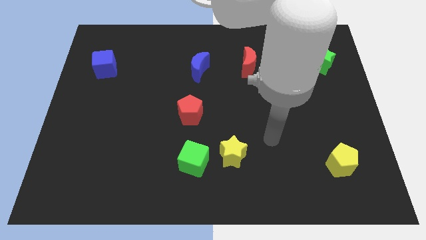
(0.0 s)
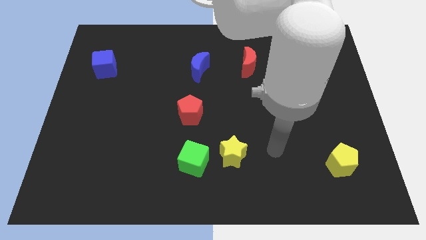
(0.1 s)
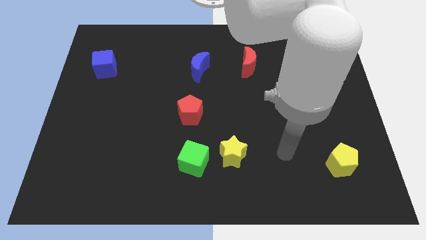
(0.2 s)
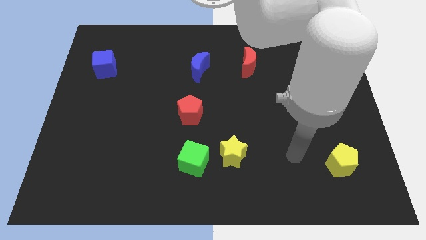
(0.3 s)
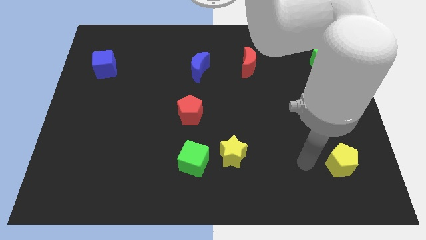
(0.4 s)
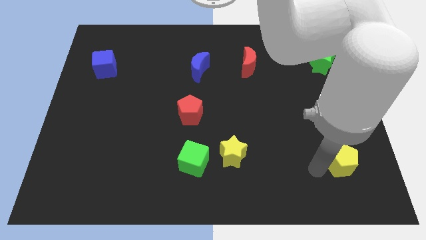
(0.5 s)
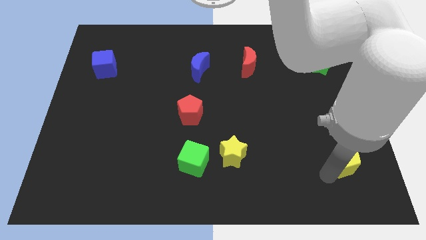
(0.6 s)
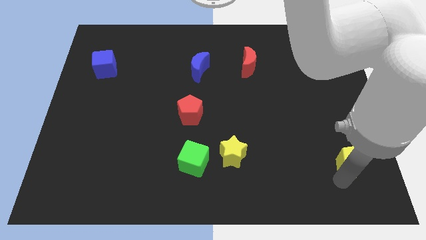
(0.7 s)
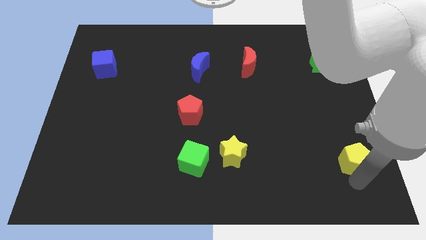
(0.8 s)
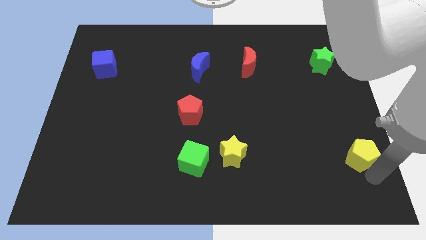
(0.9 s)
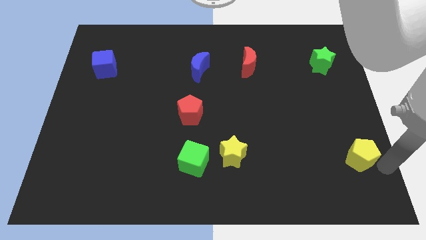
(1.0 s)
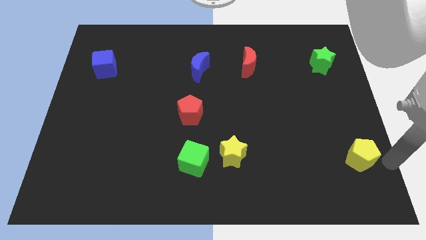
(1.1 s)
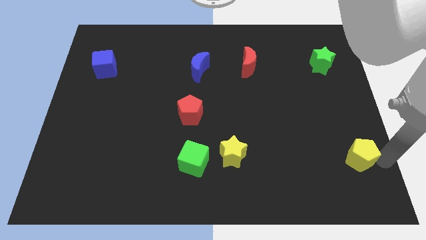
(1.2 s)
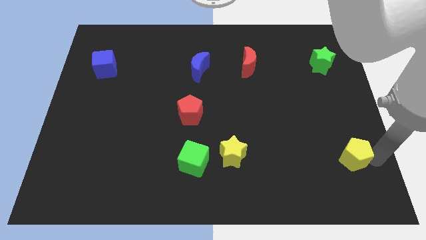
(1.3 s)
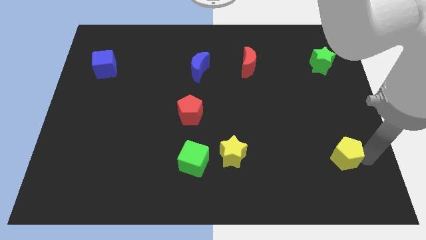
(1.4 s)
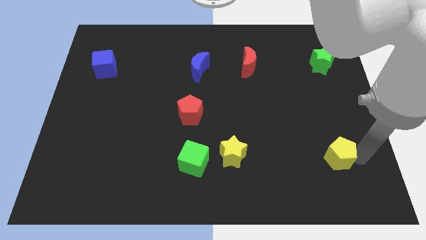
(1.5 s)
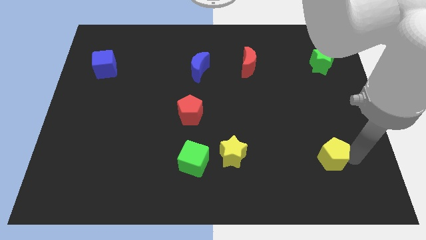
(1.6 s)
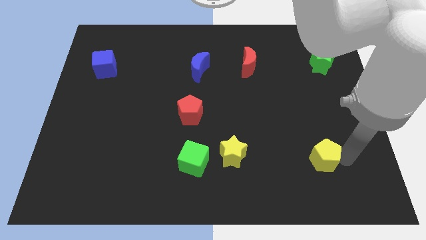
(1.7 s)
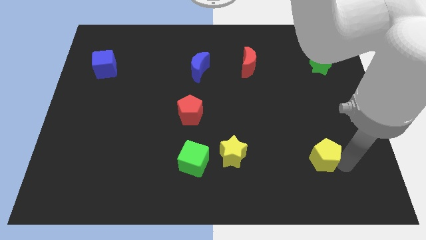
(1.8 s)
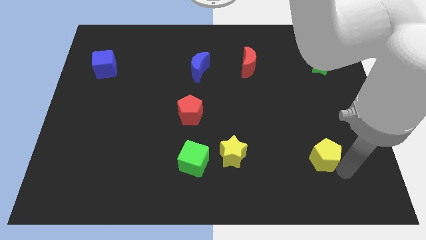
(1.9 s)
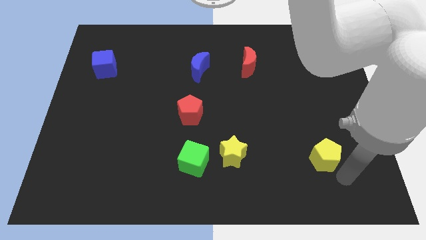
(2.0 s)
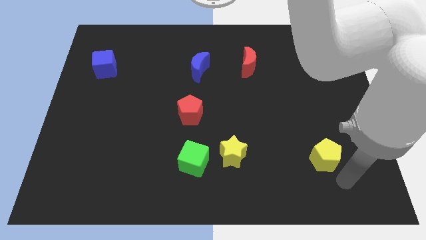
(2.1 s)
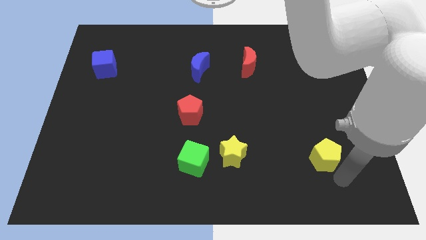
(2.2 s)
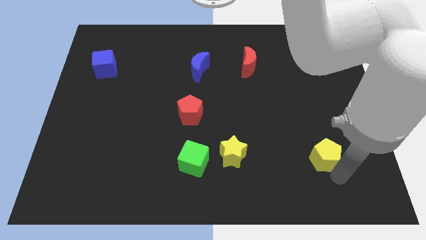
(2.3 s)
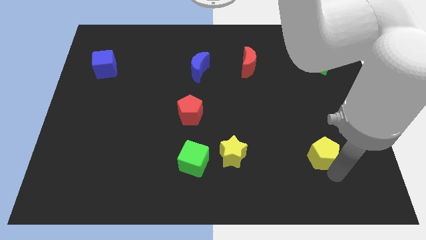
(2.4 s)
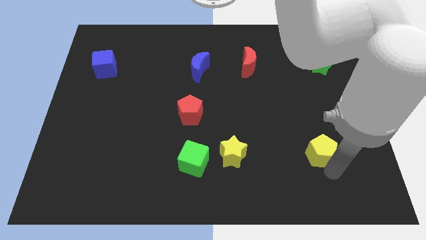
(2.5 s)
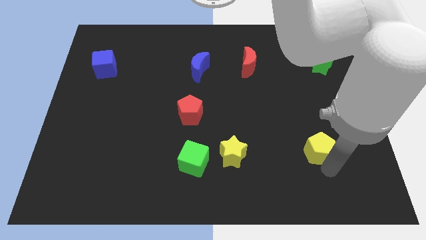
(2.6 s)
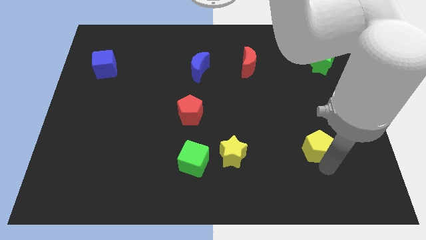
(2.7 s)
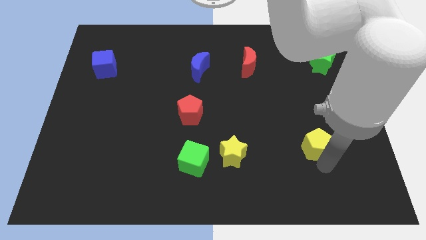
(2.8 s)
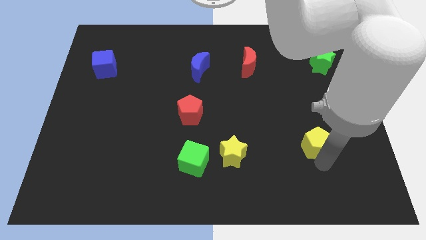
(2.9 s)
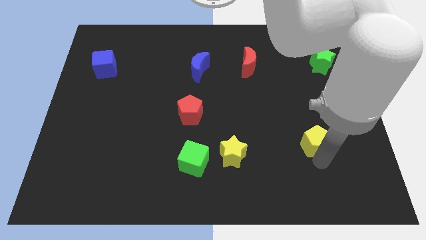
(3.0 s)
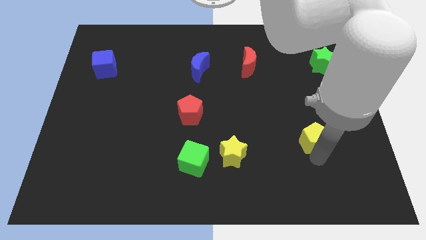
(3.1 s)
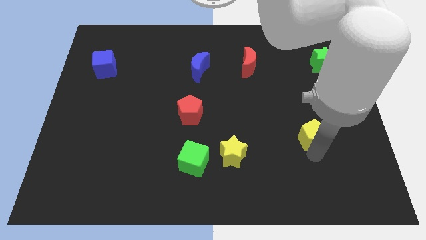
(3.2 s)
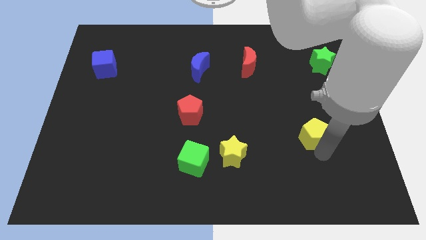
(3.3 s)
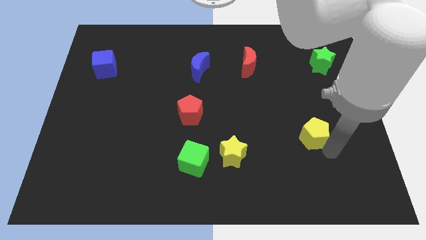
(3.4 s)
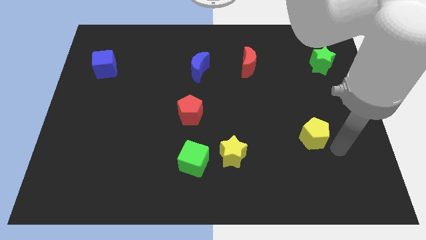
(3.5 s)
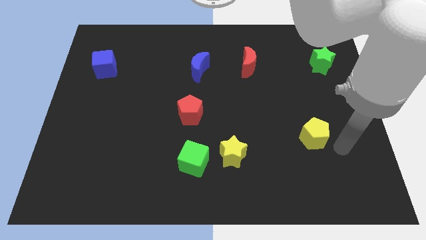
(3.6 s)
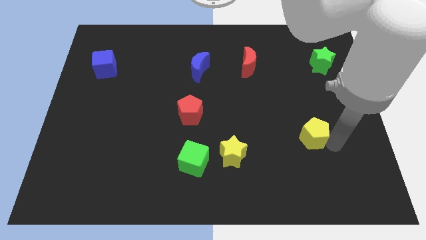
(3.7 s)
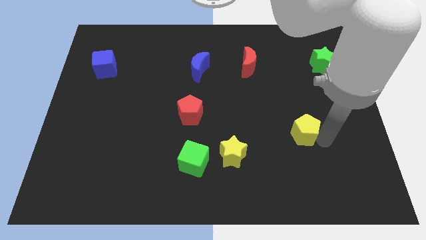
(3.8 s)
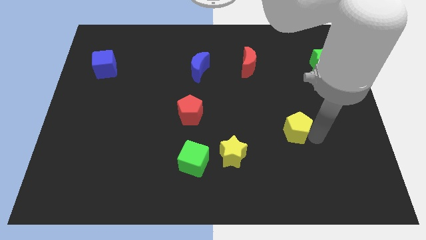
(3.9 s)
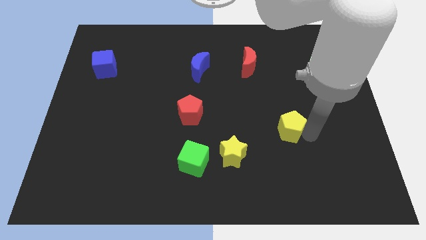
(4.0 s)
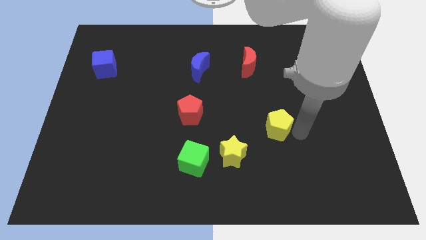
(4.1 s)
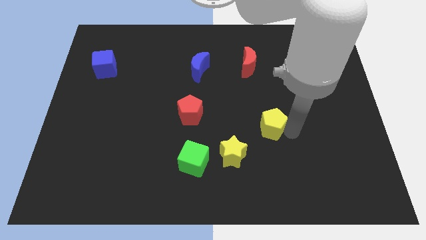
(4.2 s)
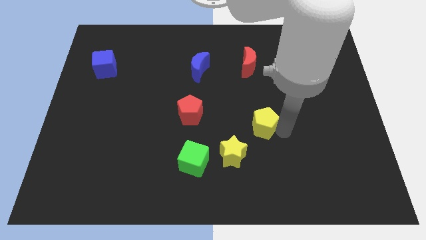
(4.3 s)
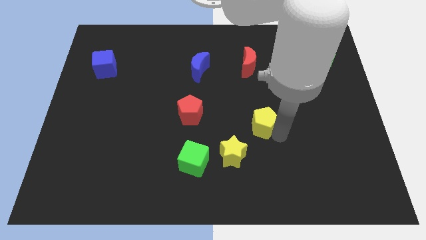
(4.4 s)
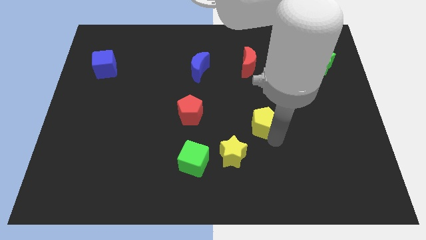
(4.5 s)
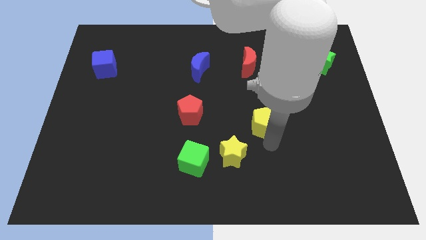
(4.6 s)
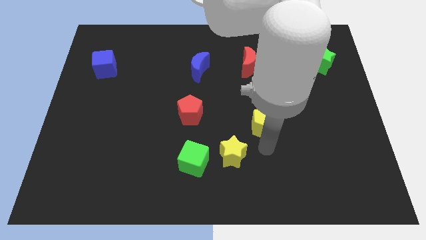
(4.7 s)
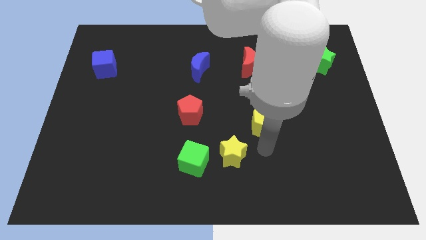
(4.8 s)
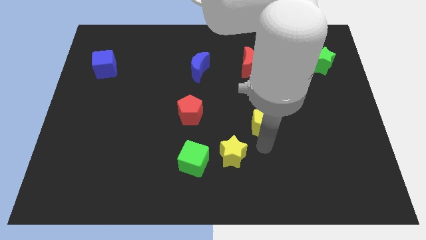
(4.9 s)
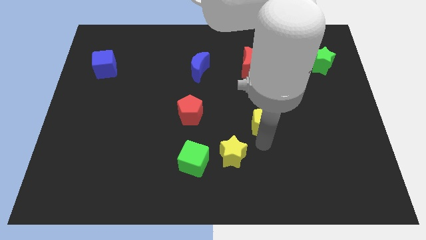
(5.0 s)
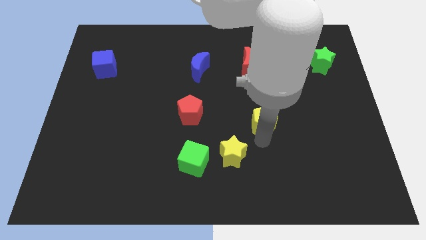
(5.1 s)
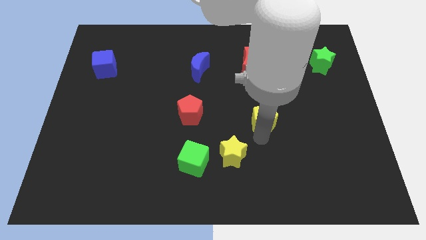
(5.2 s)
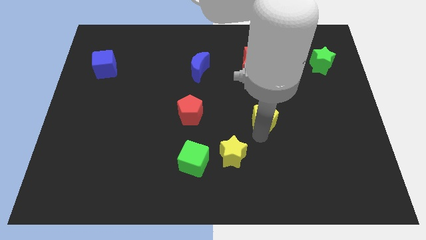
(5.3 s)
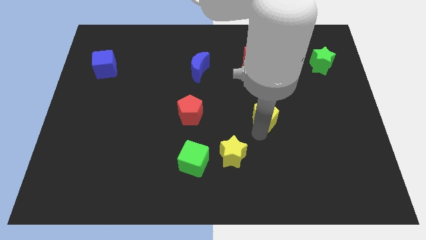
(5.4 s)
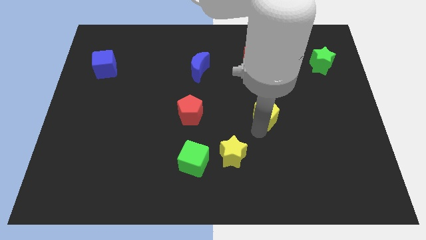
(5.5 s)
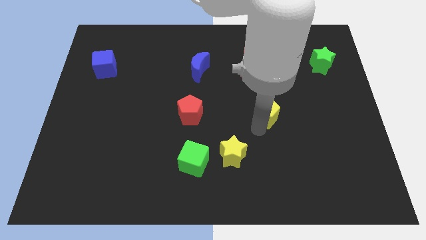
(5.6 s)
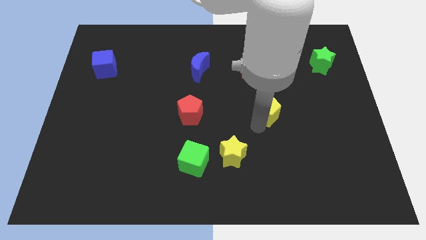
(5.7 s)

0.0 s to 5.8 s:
push the yellow pentagon upwards and left

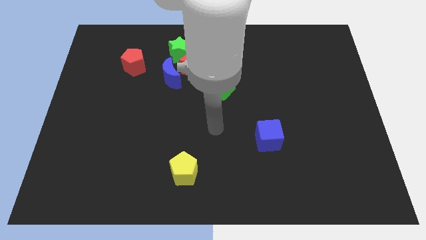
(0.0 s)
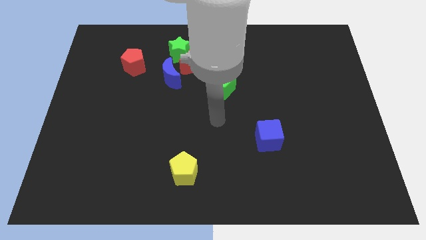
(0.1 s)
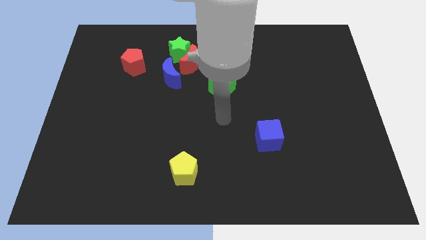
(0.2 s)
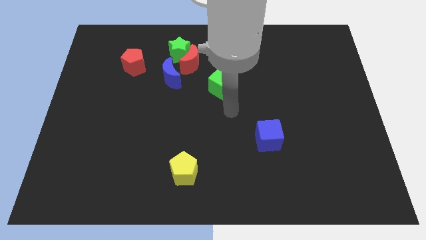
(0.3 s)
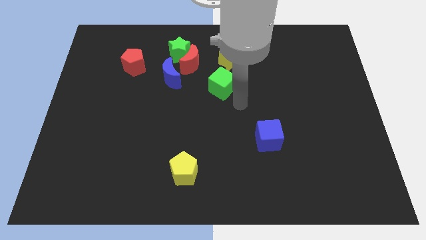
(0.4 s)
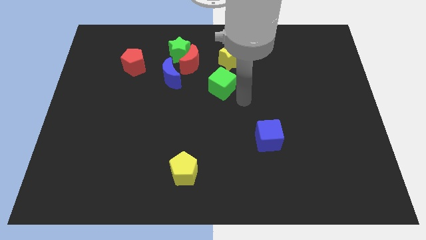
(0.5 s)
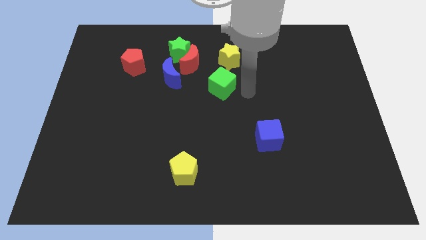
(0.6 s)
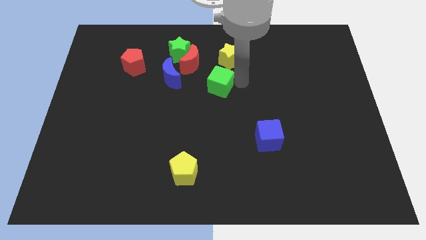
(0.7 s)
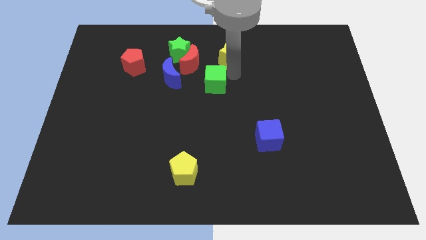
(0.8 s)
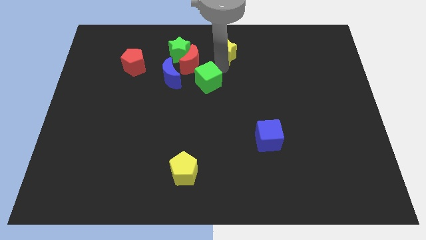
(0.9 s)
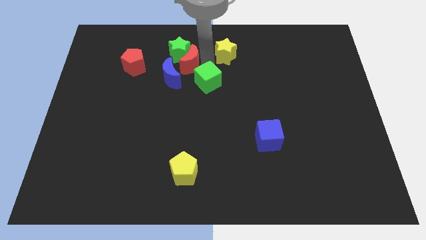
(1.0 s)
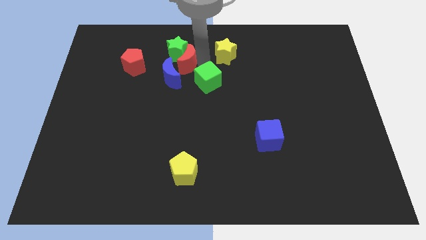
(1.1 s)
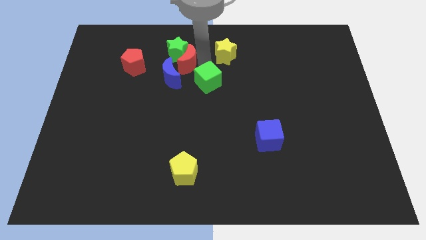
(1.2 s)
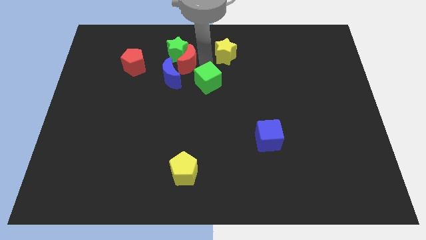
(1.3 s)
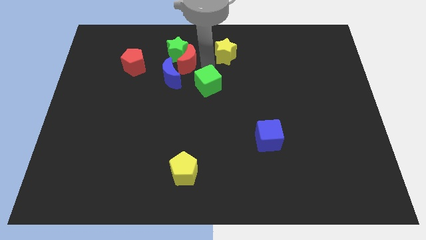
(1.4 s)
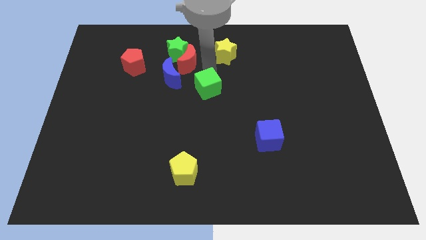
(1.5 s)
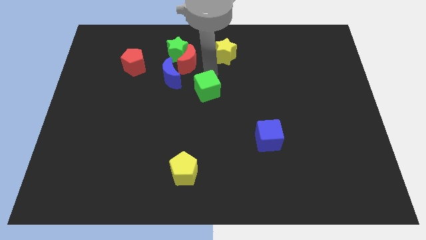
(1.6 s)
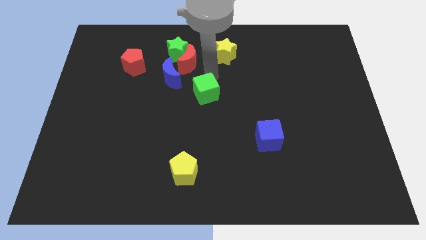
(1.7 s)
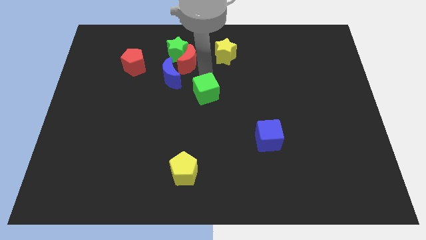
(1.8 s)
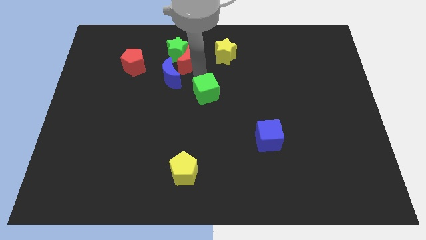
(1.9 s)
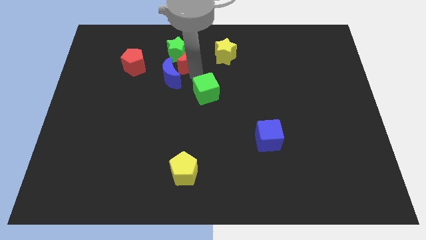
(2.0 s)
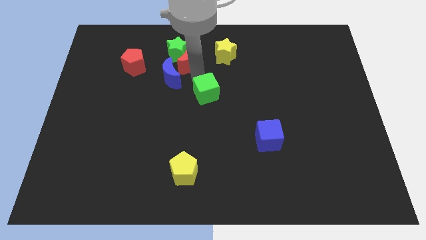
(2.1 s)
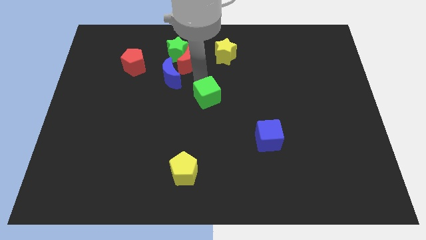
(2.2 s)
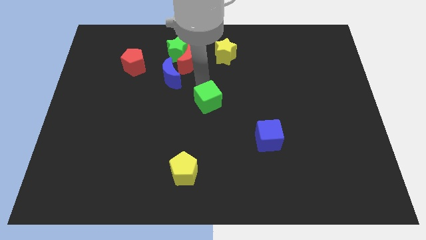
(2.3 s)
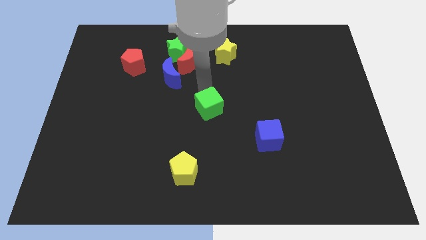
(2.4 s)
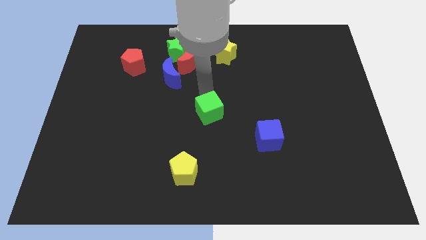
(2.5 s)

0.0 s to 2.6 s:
slide the green cube downwards a bit
